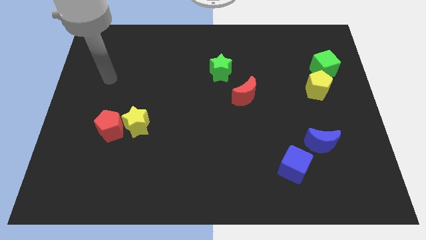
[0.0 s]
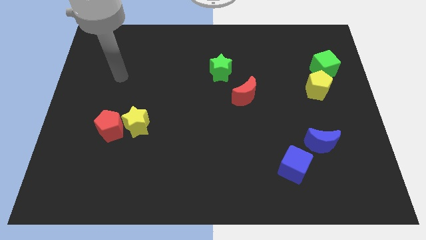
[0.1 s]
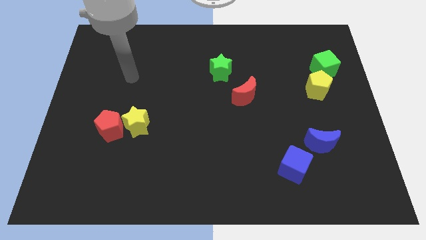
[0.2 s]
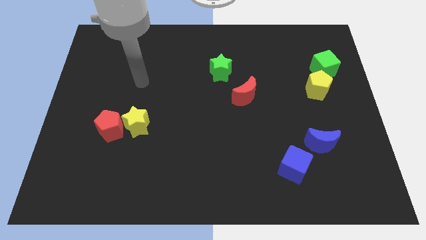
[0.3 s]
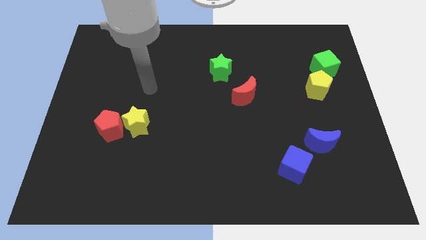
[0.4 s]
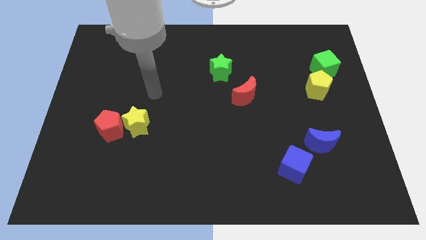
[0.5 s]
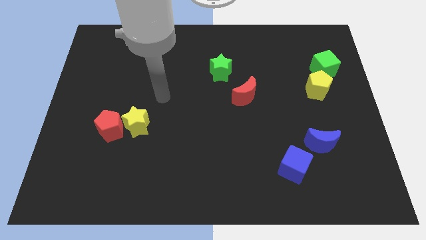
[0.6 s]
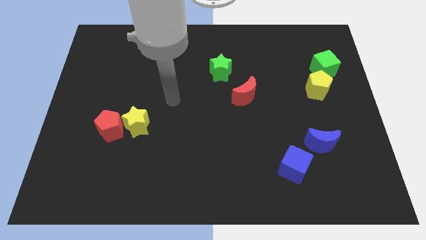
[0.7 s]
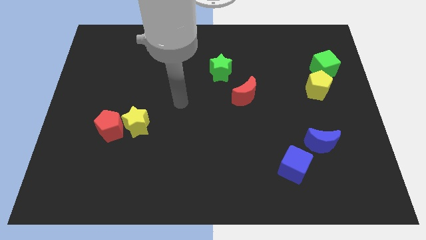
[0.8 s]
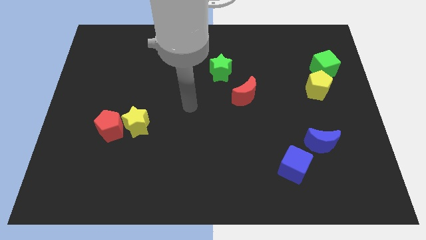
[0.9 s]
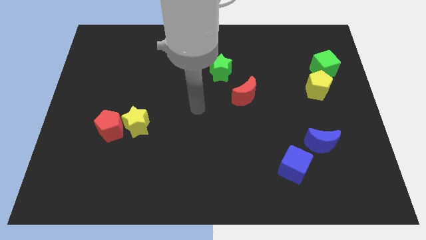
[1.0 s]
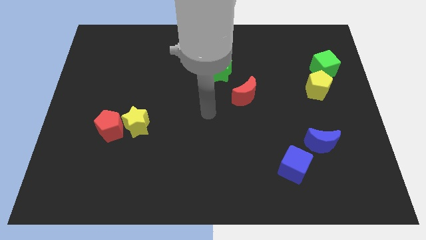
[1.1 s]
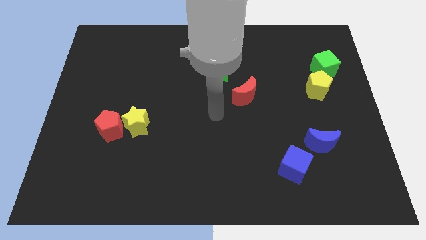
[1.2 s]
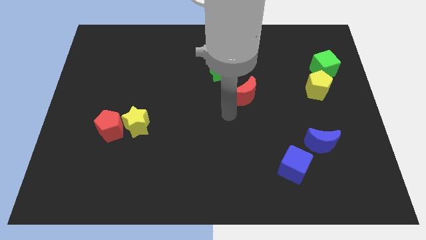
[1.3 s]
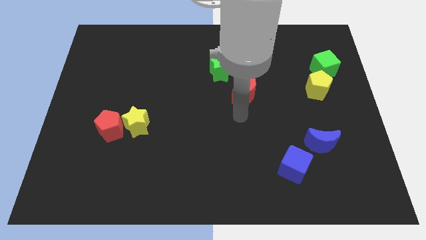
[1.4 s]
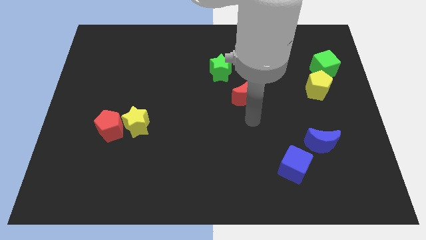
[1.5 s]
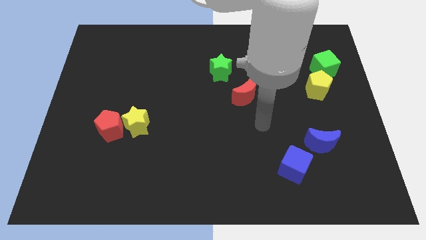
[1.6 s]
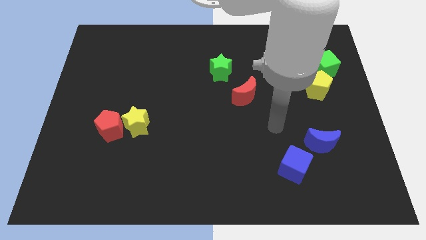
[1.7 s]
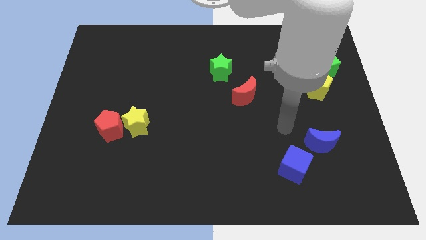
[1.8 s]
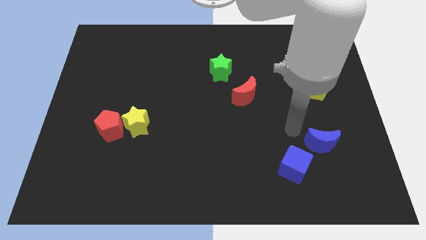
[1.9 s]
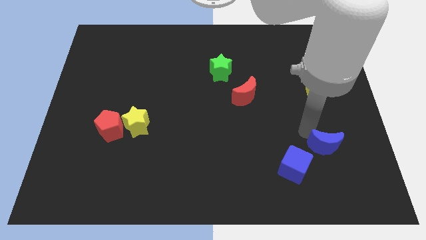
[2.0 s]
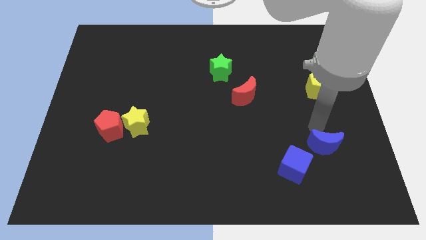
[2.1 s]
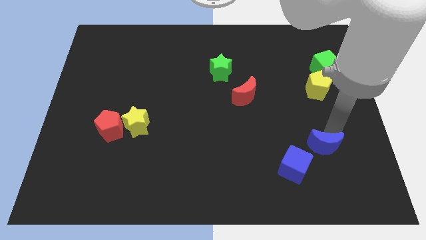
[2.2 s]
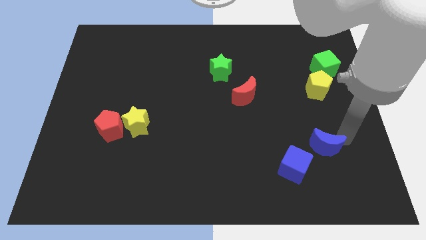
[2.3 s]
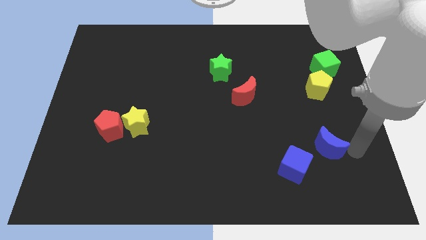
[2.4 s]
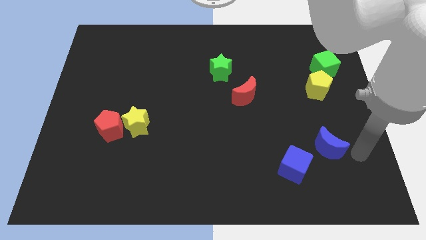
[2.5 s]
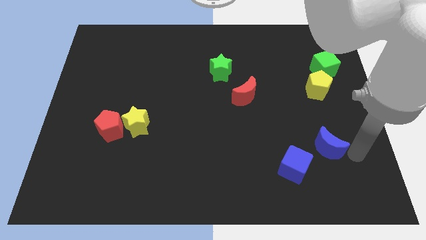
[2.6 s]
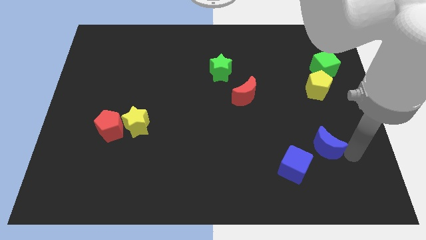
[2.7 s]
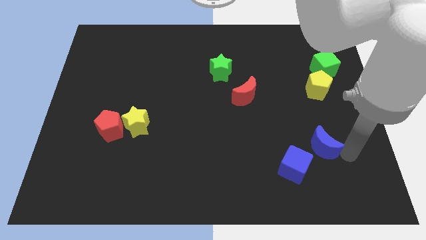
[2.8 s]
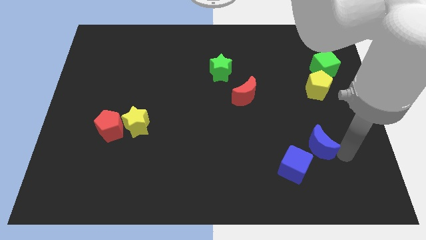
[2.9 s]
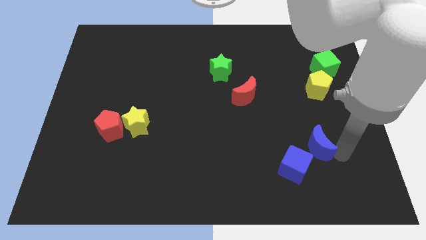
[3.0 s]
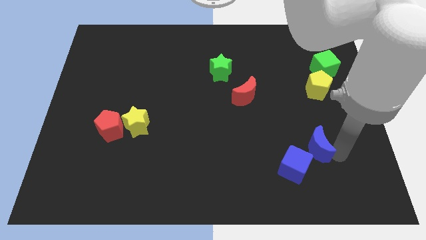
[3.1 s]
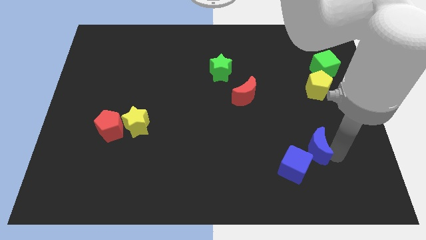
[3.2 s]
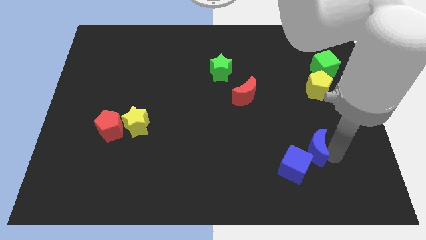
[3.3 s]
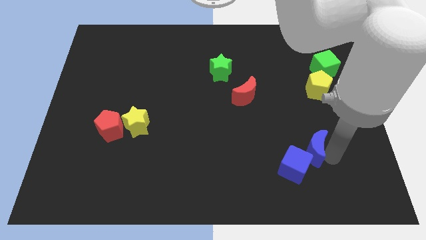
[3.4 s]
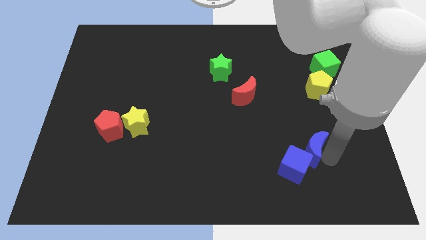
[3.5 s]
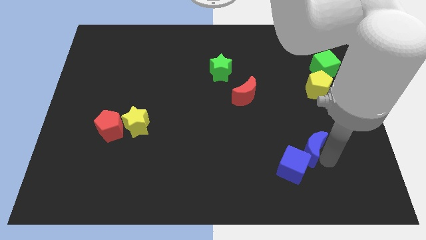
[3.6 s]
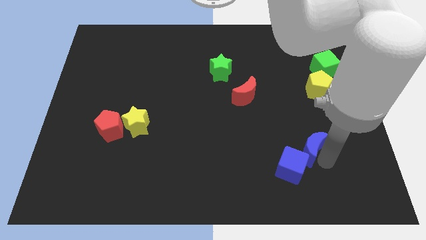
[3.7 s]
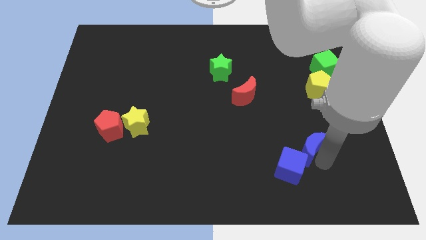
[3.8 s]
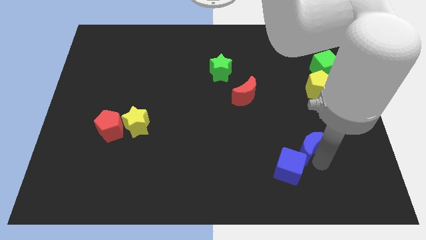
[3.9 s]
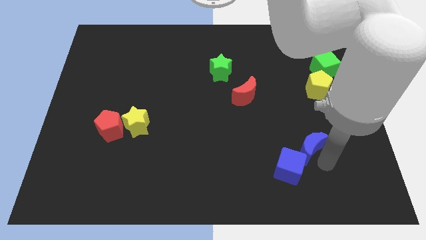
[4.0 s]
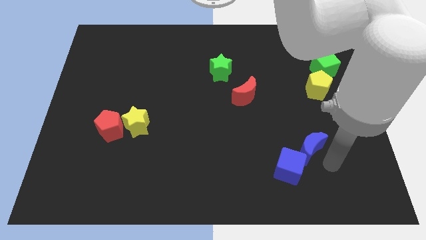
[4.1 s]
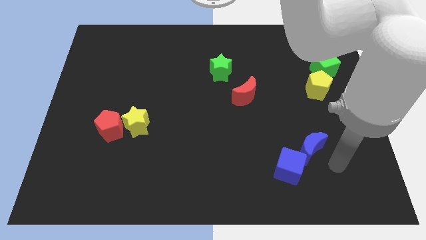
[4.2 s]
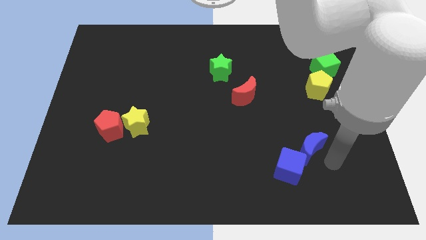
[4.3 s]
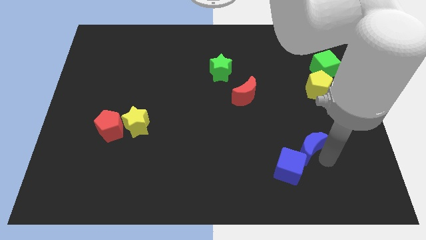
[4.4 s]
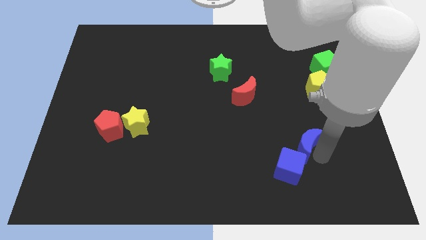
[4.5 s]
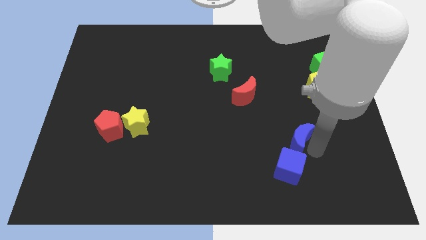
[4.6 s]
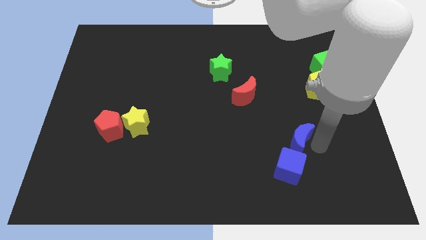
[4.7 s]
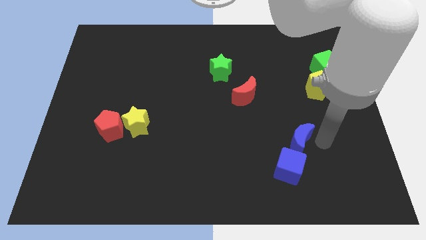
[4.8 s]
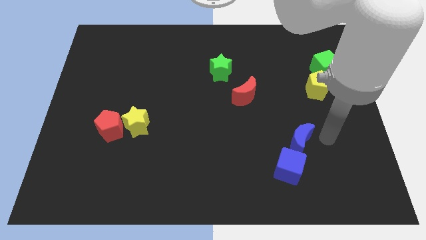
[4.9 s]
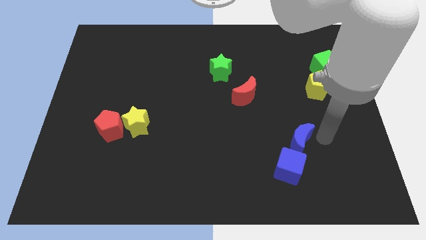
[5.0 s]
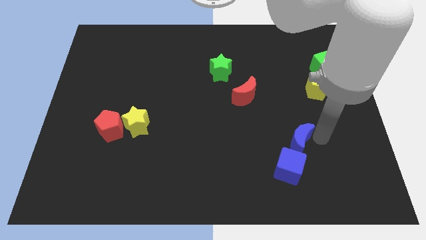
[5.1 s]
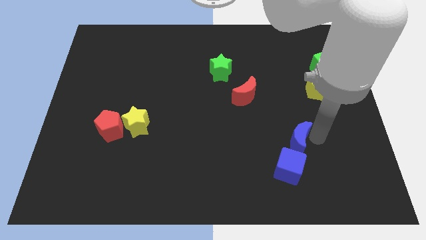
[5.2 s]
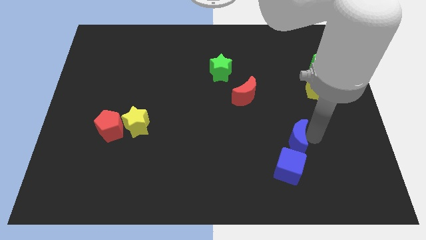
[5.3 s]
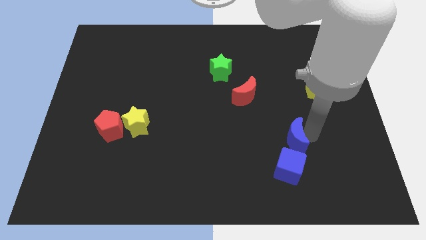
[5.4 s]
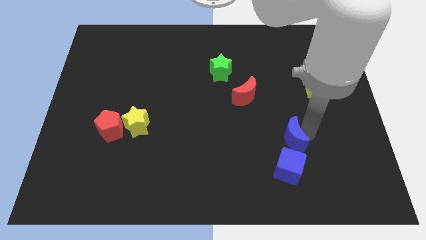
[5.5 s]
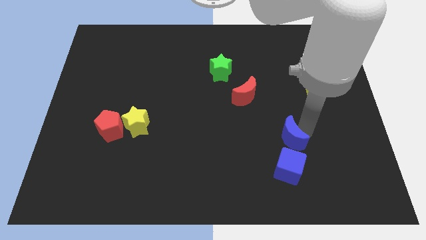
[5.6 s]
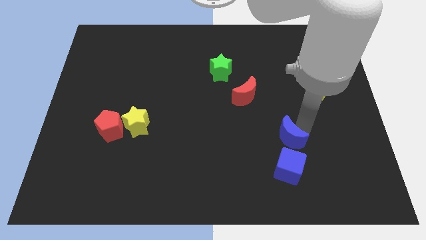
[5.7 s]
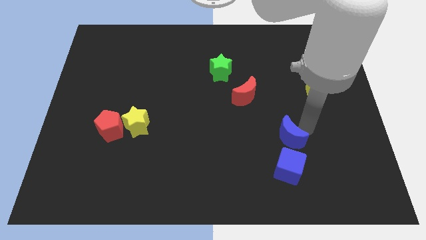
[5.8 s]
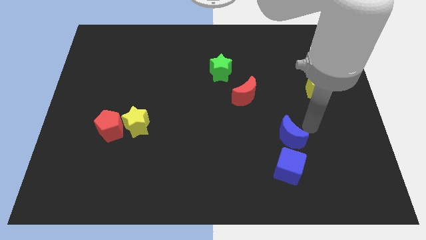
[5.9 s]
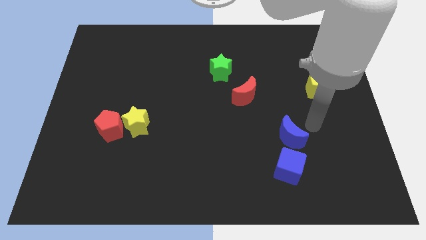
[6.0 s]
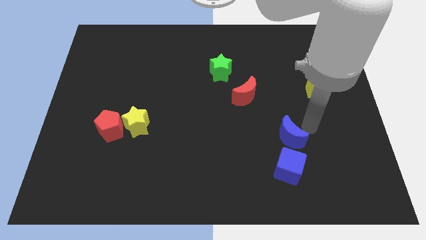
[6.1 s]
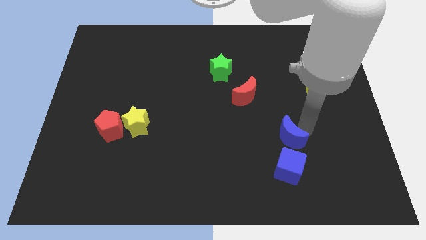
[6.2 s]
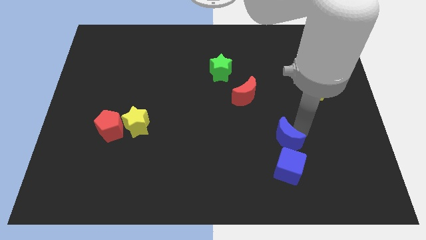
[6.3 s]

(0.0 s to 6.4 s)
slide the blue moon slightly to the left

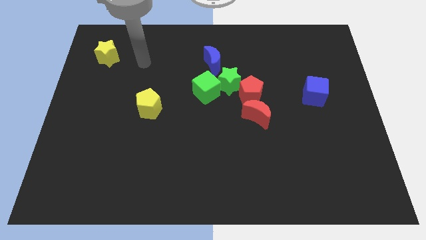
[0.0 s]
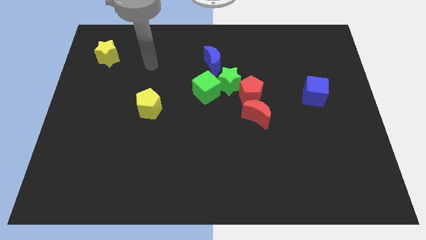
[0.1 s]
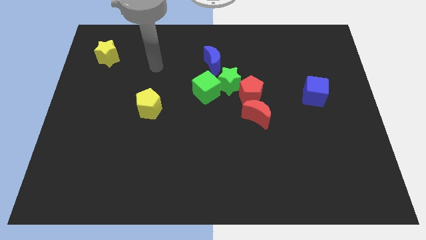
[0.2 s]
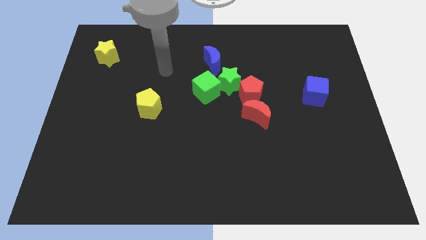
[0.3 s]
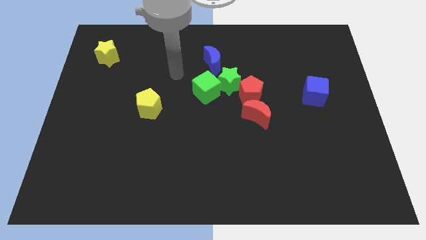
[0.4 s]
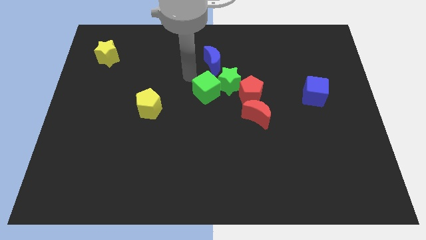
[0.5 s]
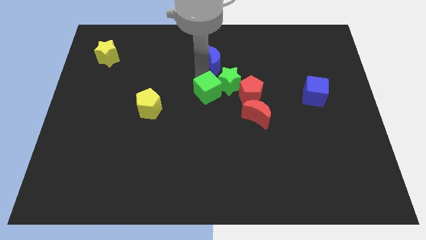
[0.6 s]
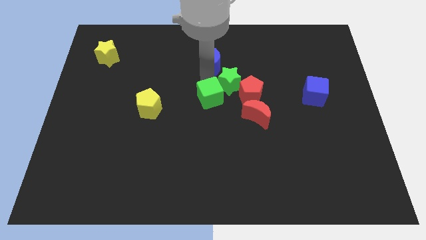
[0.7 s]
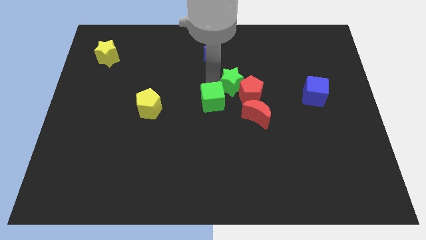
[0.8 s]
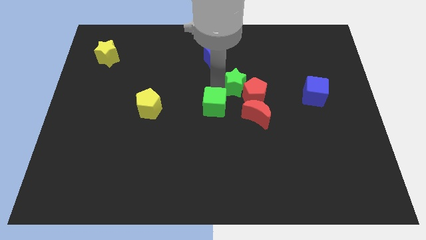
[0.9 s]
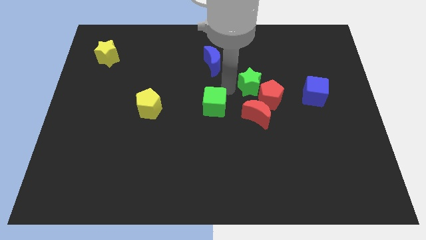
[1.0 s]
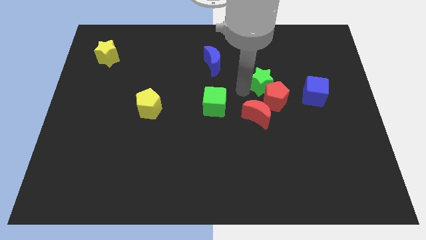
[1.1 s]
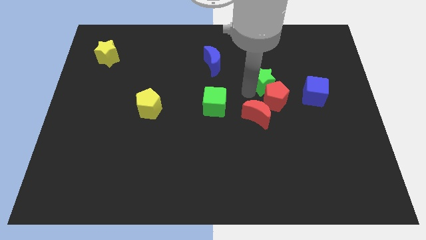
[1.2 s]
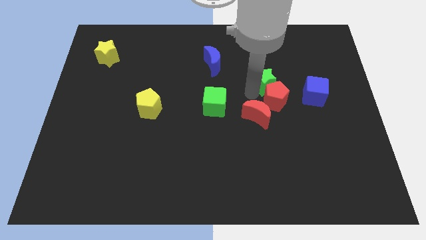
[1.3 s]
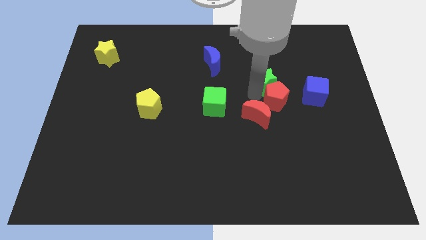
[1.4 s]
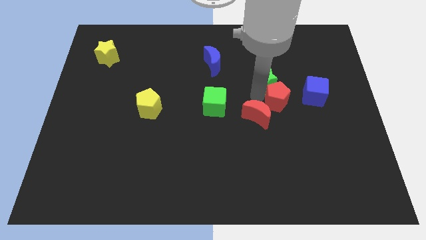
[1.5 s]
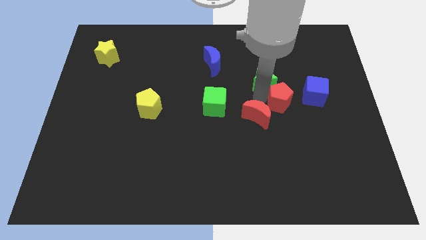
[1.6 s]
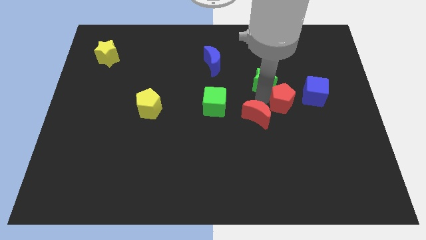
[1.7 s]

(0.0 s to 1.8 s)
slide the red pentagon to the right a little
